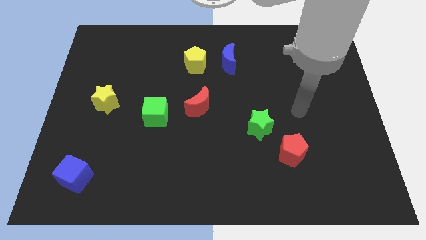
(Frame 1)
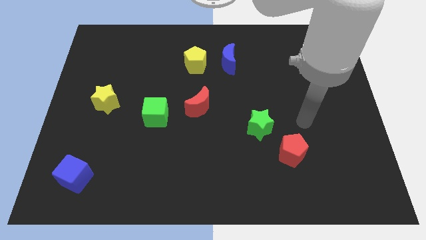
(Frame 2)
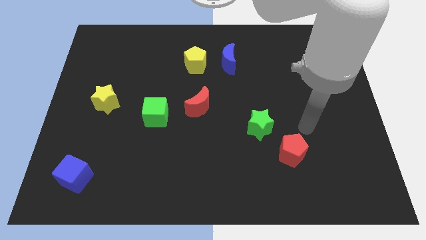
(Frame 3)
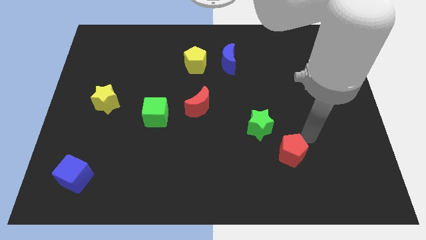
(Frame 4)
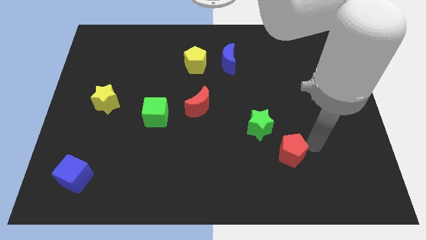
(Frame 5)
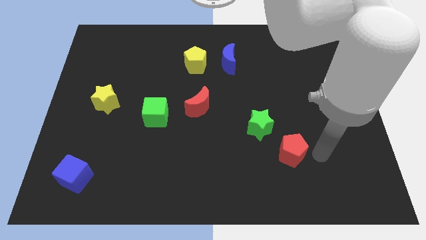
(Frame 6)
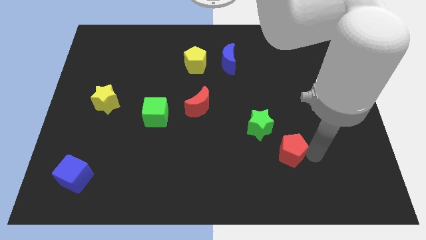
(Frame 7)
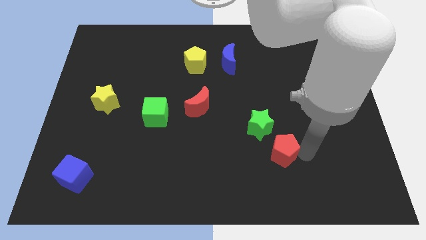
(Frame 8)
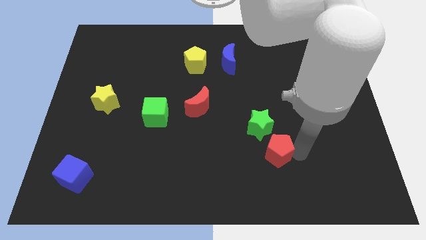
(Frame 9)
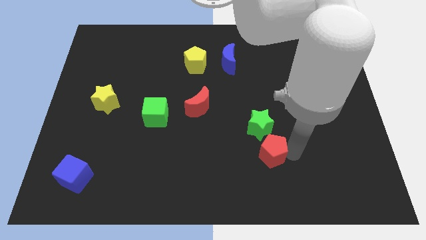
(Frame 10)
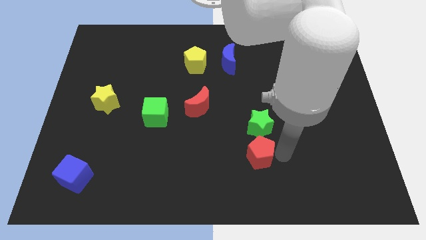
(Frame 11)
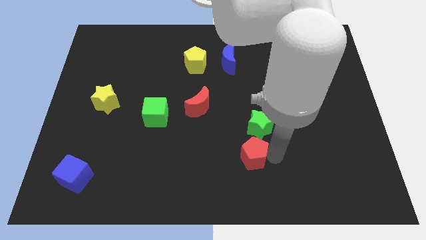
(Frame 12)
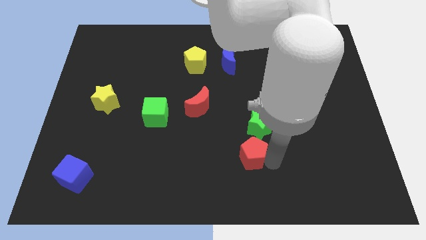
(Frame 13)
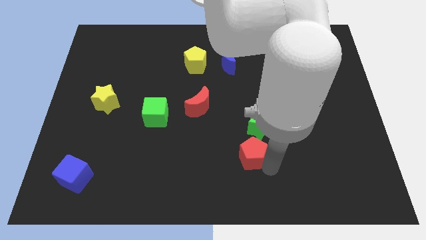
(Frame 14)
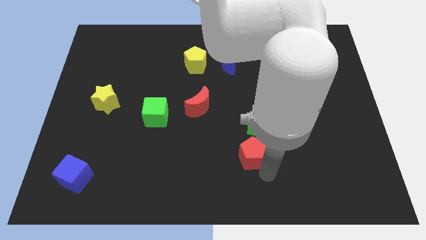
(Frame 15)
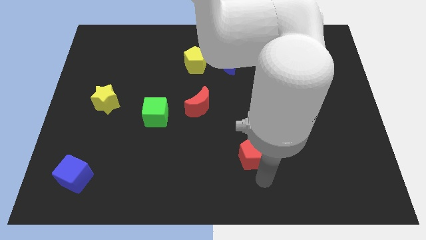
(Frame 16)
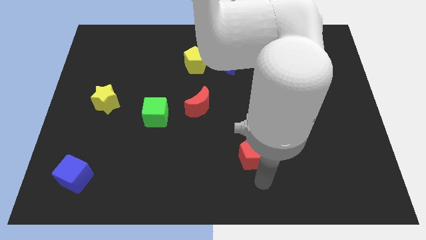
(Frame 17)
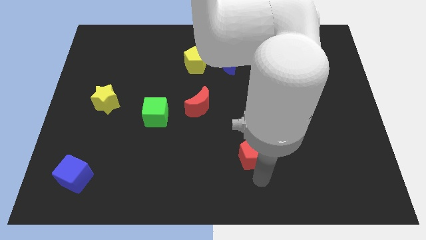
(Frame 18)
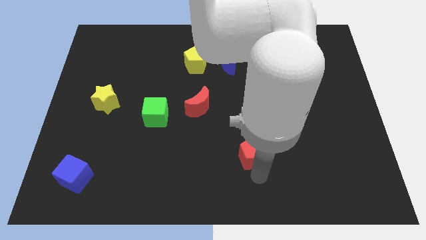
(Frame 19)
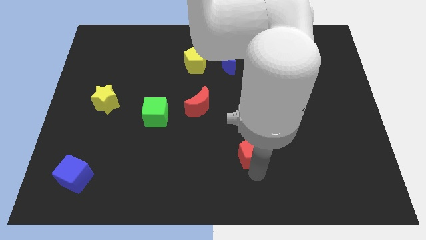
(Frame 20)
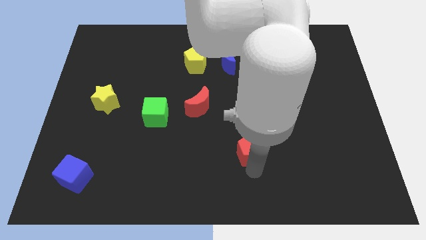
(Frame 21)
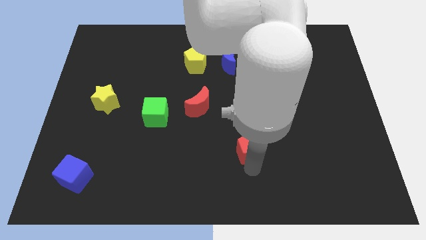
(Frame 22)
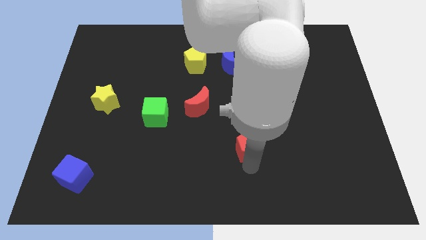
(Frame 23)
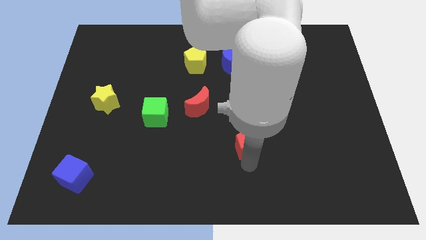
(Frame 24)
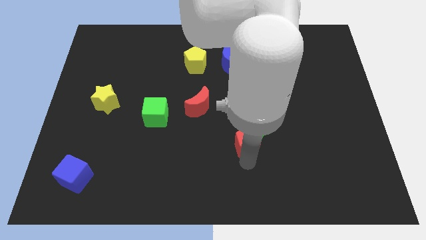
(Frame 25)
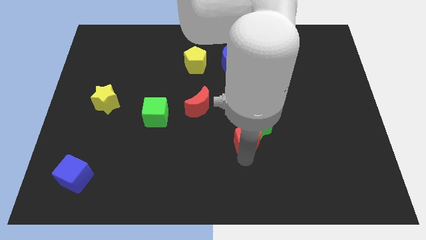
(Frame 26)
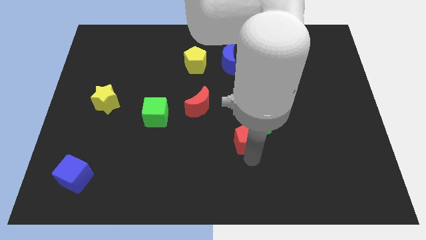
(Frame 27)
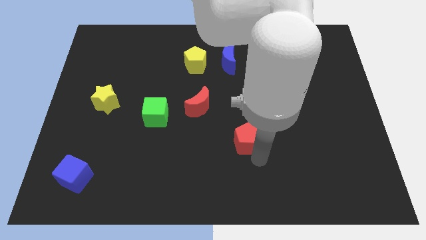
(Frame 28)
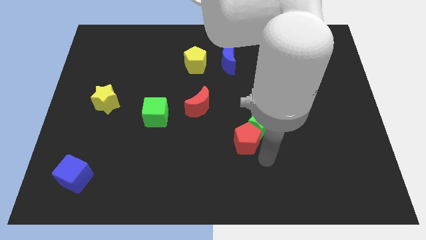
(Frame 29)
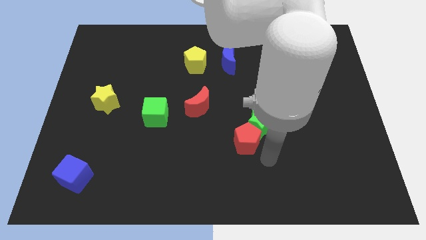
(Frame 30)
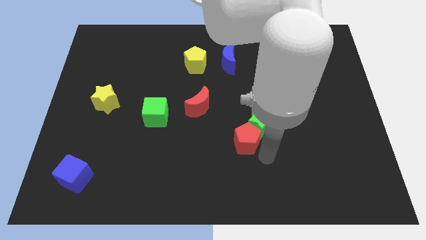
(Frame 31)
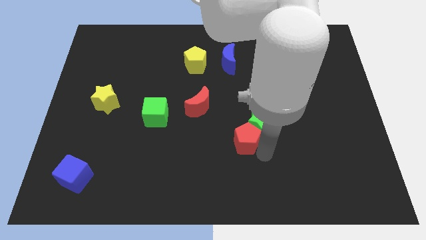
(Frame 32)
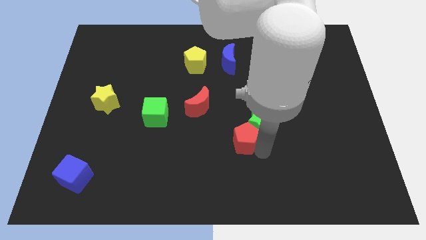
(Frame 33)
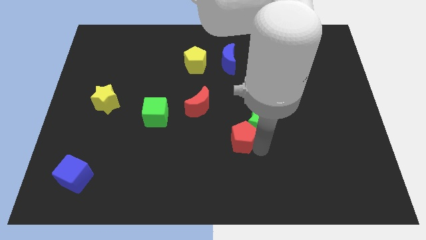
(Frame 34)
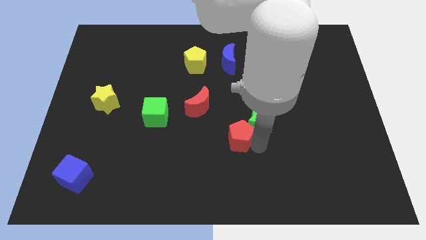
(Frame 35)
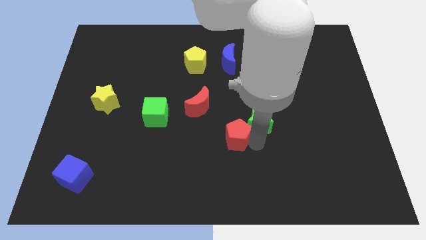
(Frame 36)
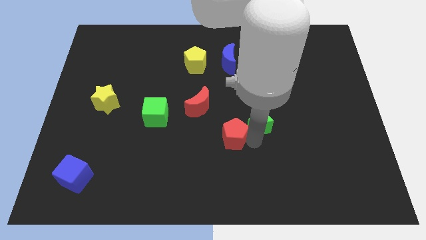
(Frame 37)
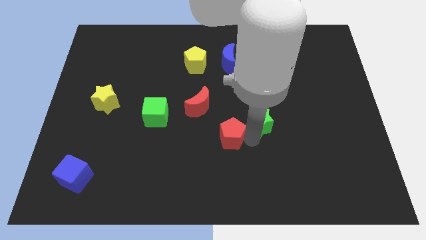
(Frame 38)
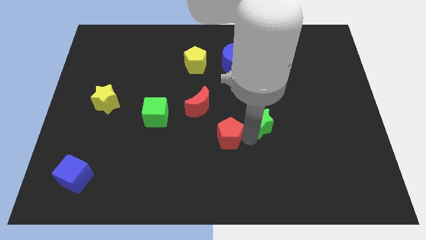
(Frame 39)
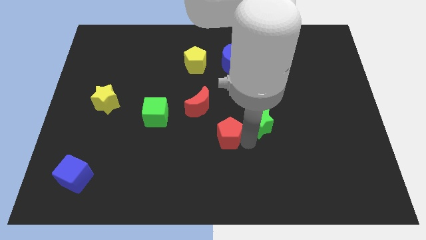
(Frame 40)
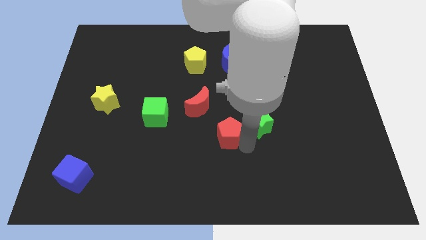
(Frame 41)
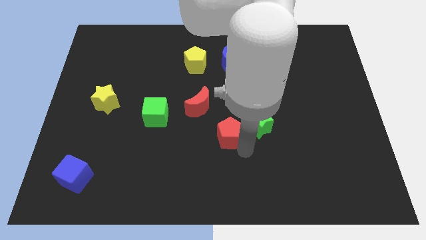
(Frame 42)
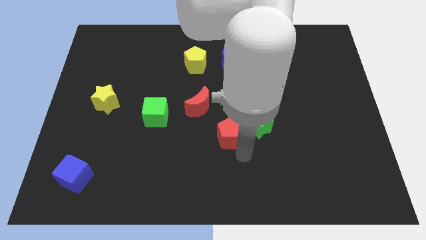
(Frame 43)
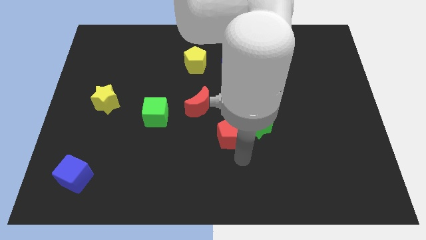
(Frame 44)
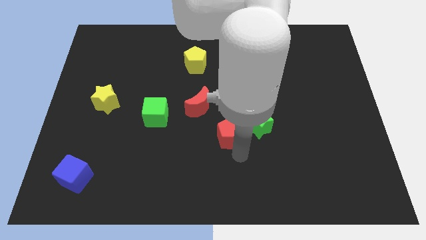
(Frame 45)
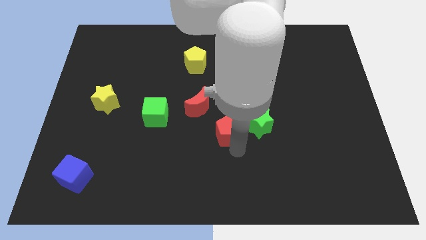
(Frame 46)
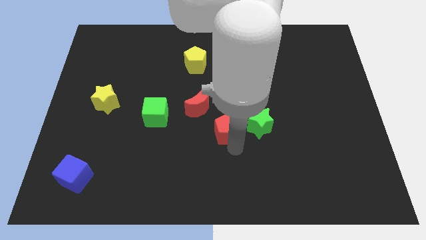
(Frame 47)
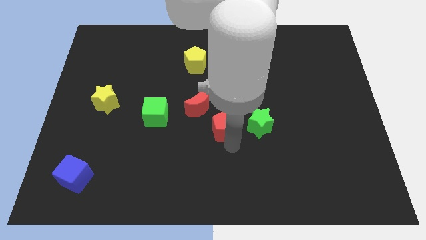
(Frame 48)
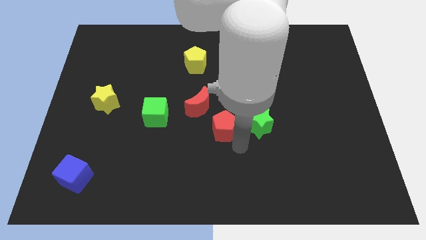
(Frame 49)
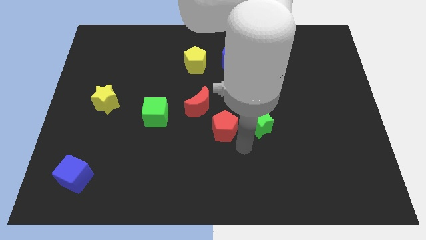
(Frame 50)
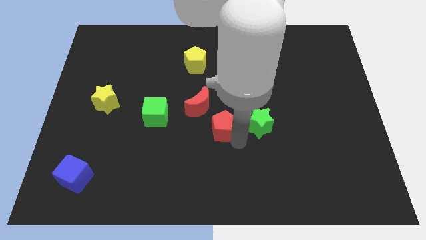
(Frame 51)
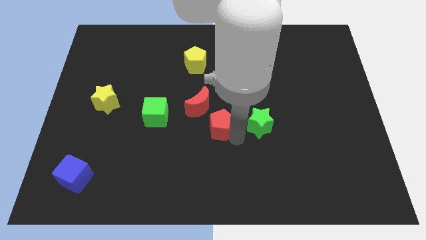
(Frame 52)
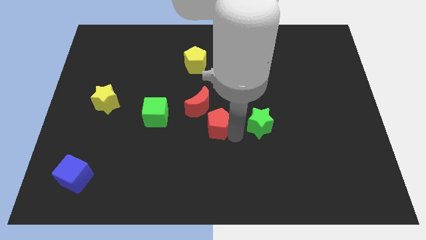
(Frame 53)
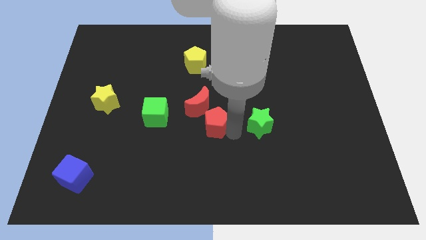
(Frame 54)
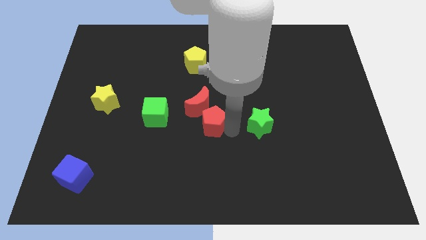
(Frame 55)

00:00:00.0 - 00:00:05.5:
move the red pentagon to the red moon

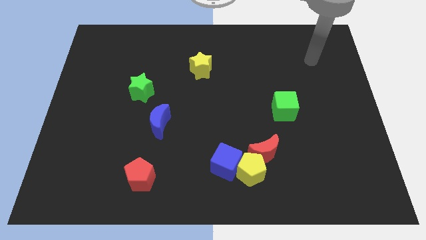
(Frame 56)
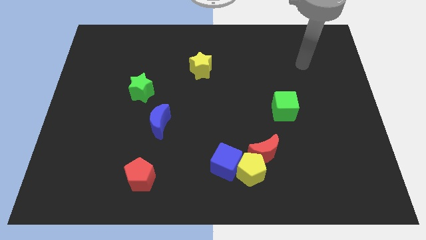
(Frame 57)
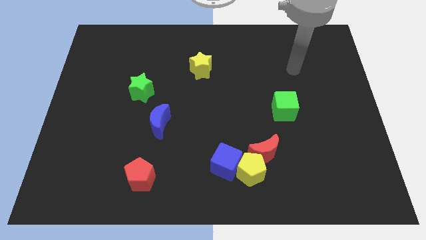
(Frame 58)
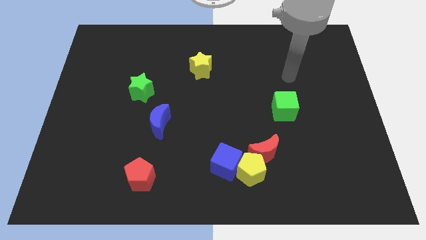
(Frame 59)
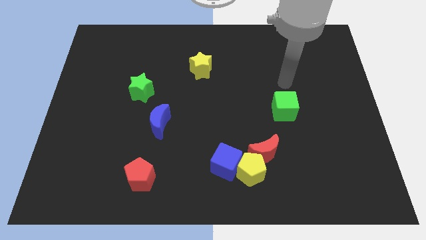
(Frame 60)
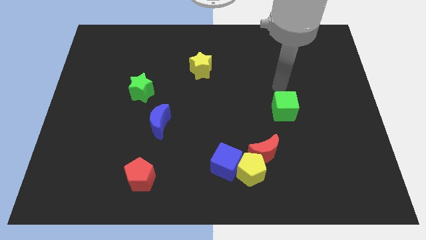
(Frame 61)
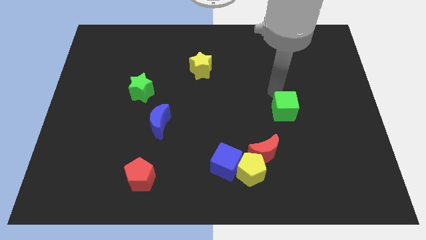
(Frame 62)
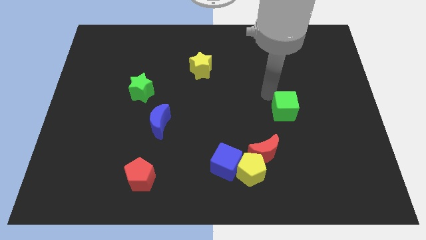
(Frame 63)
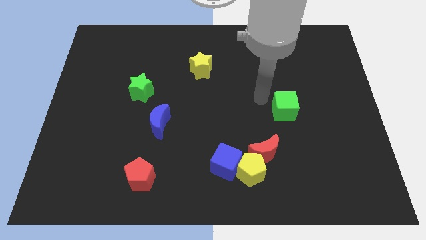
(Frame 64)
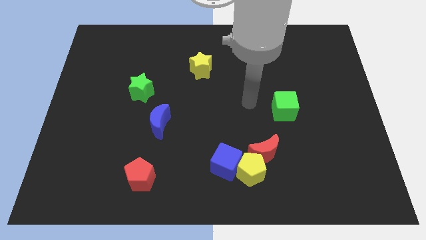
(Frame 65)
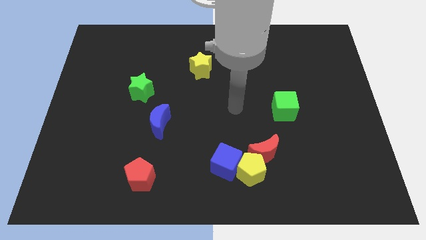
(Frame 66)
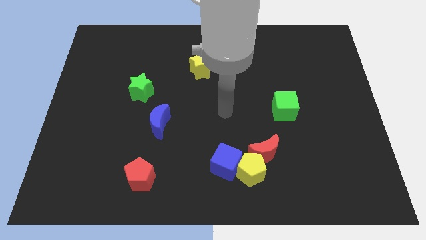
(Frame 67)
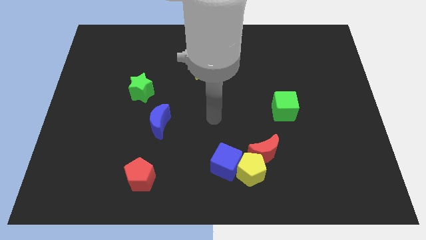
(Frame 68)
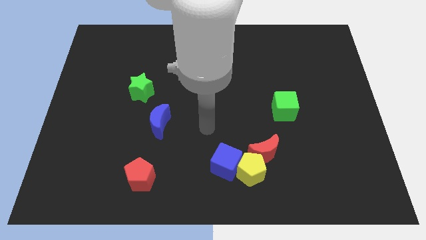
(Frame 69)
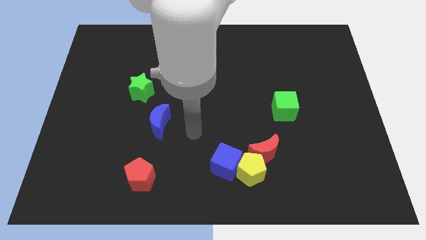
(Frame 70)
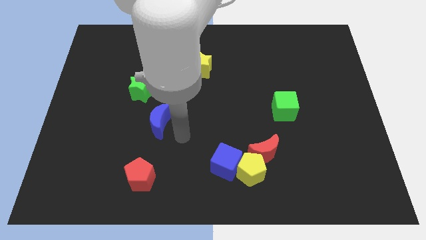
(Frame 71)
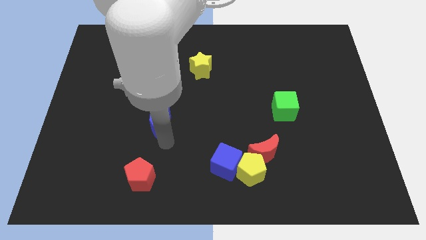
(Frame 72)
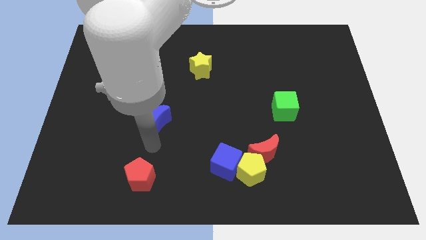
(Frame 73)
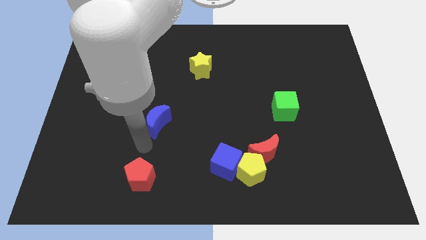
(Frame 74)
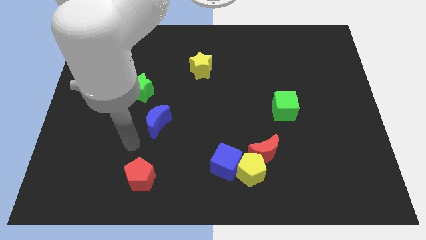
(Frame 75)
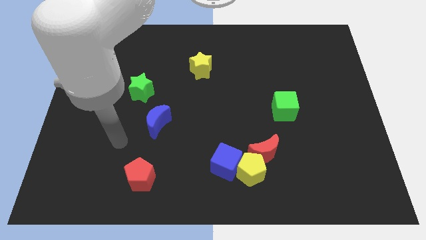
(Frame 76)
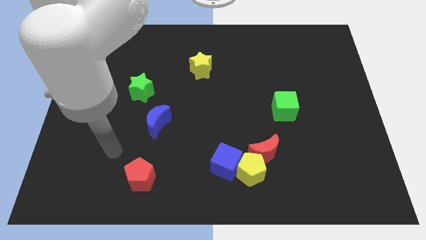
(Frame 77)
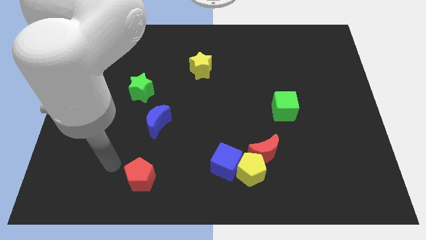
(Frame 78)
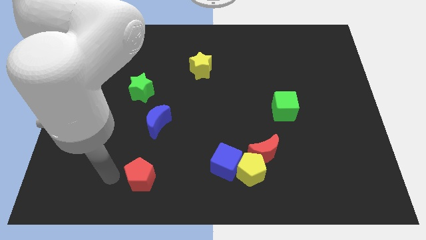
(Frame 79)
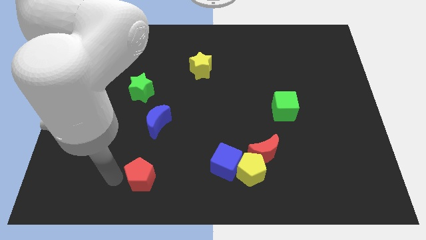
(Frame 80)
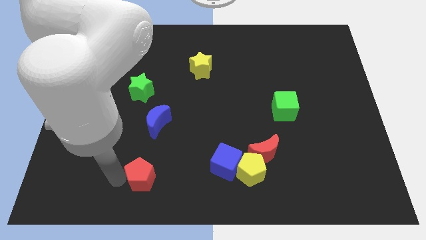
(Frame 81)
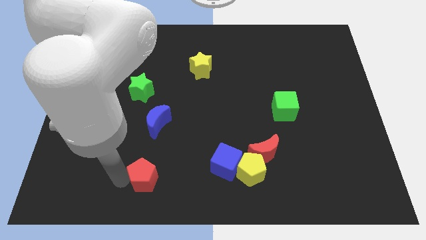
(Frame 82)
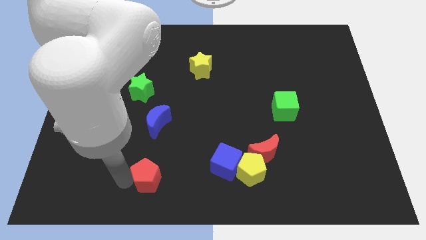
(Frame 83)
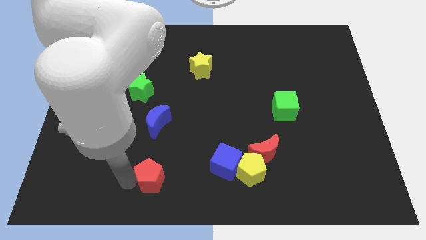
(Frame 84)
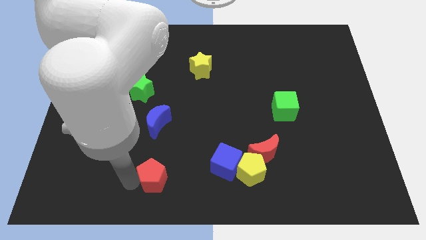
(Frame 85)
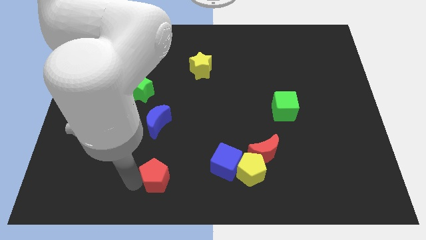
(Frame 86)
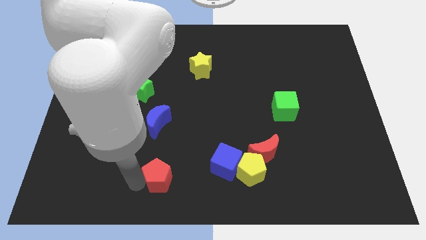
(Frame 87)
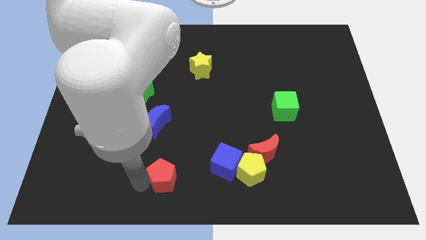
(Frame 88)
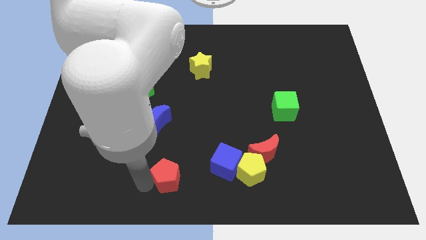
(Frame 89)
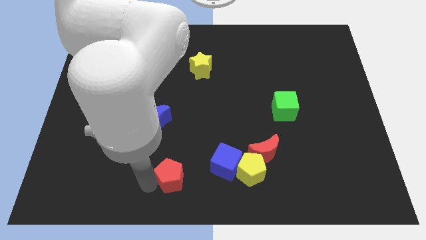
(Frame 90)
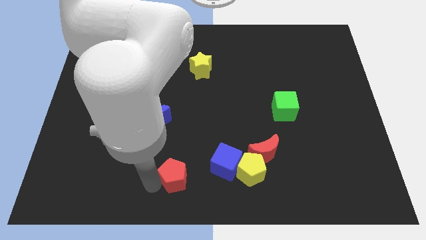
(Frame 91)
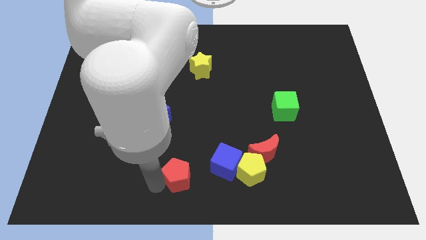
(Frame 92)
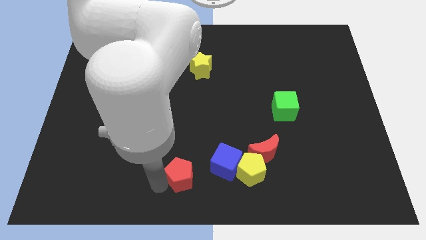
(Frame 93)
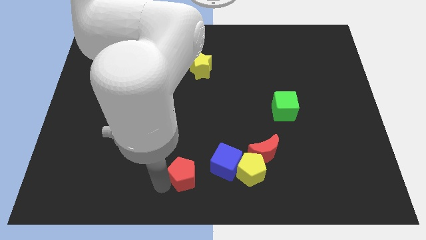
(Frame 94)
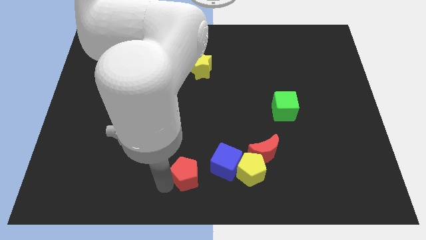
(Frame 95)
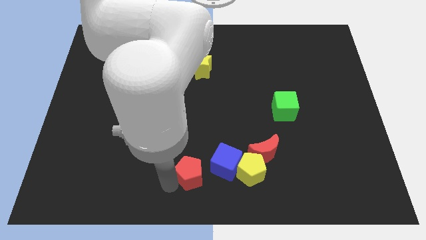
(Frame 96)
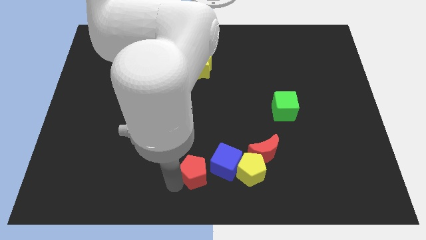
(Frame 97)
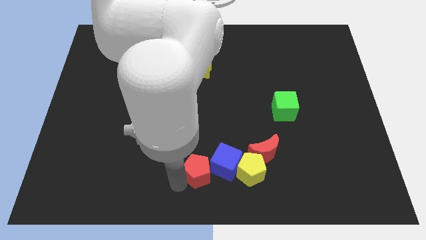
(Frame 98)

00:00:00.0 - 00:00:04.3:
put the red pentagon close to the blue cube
